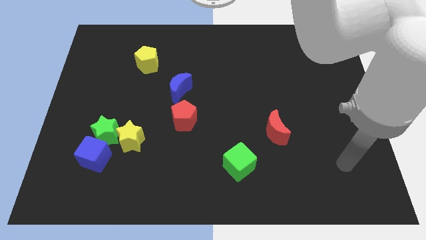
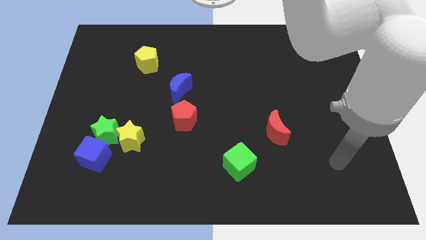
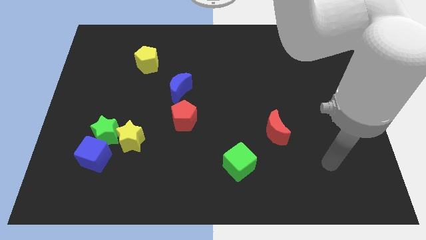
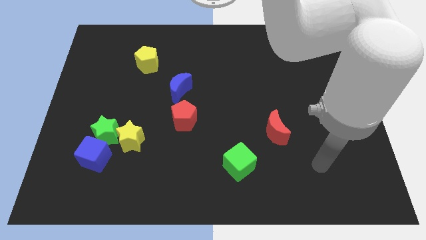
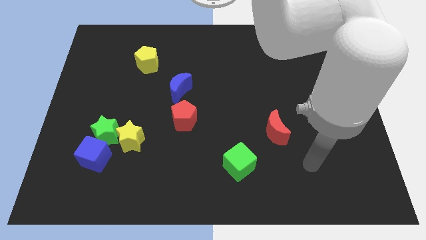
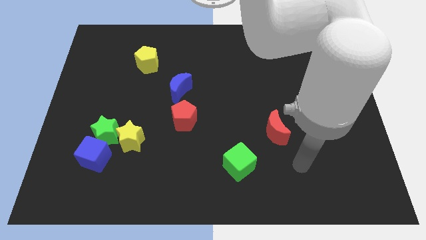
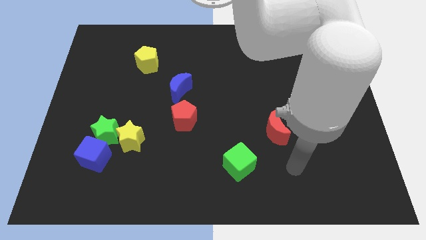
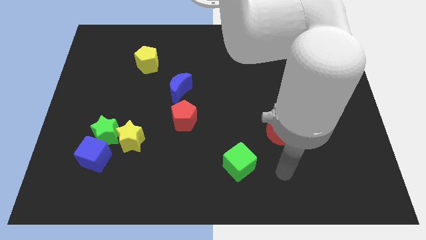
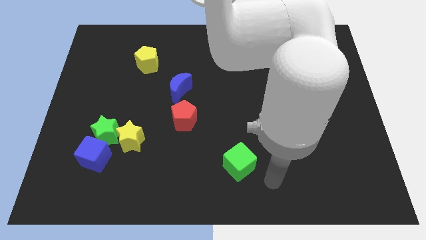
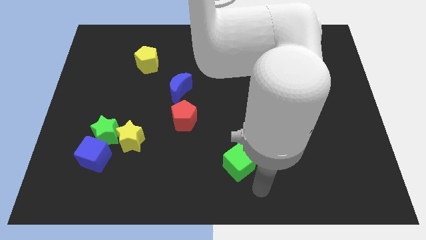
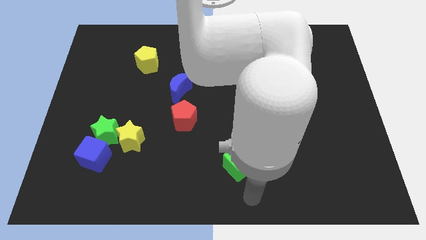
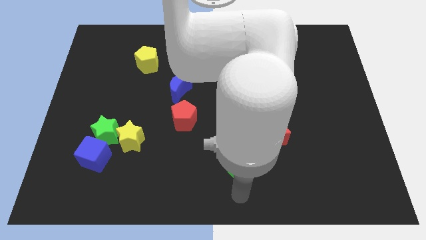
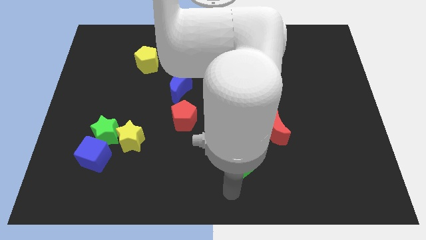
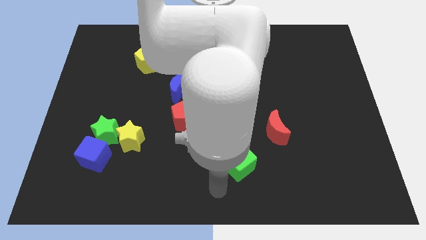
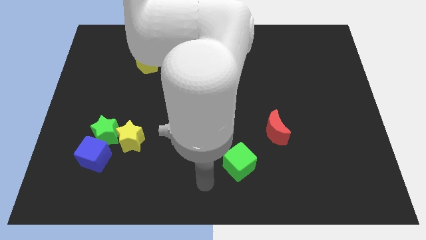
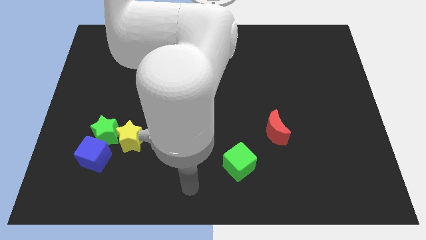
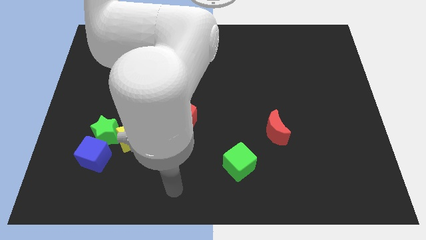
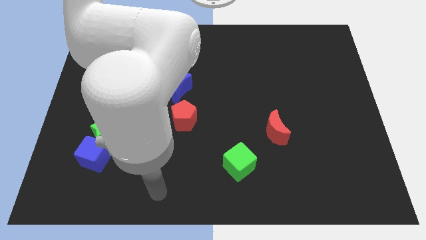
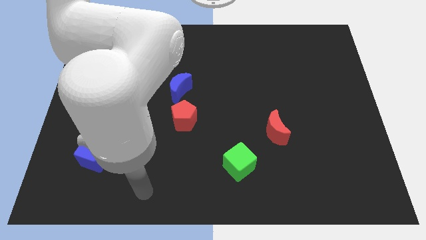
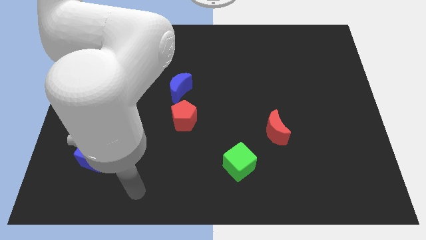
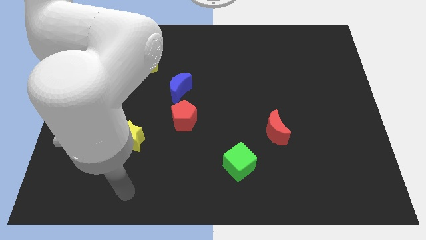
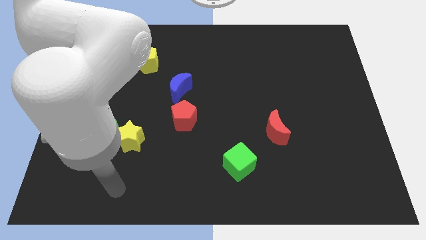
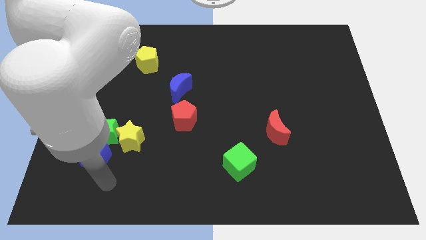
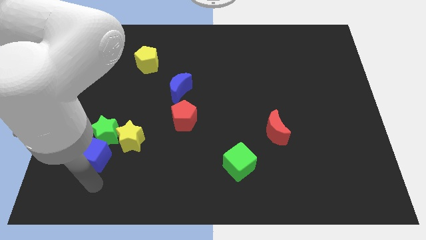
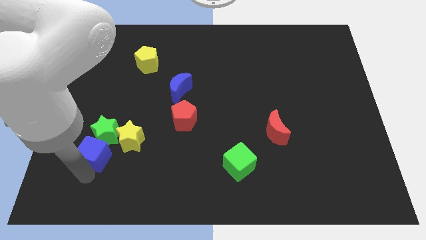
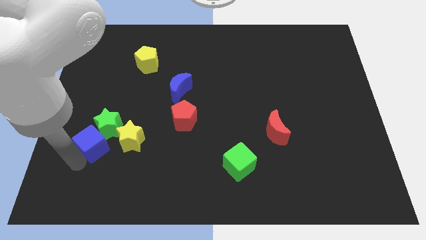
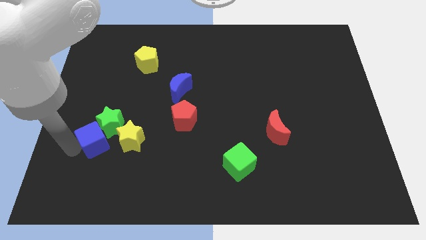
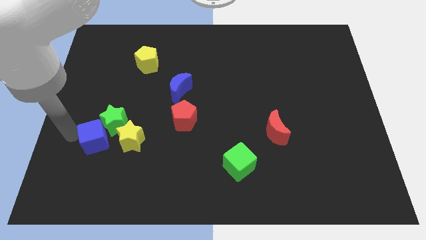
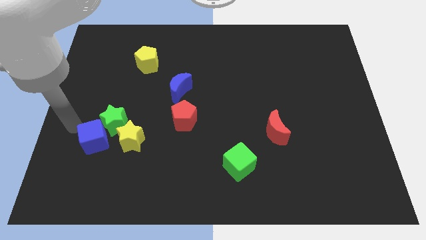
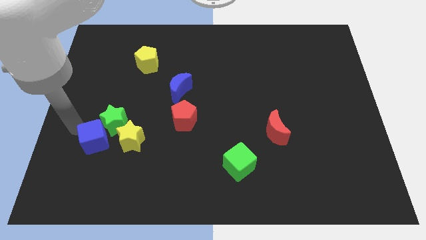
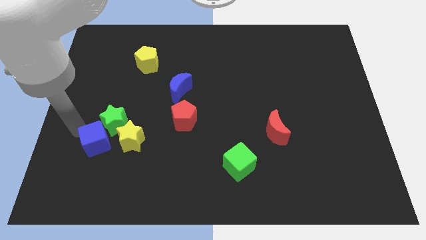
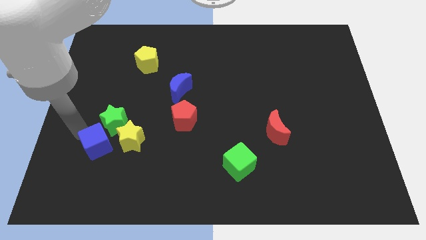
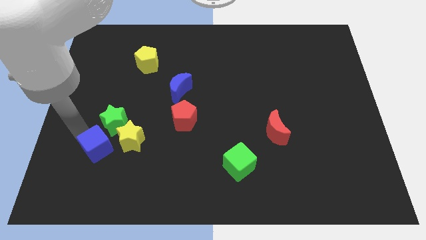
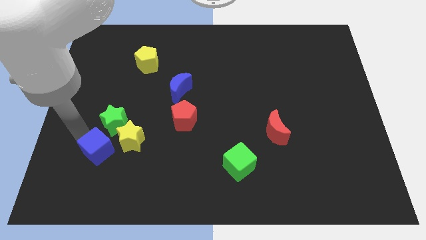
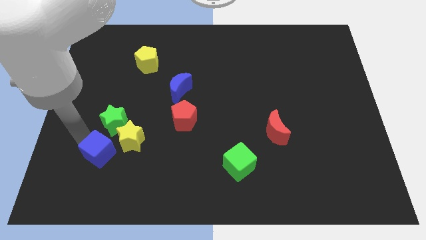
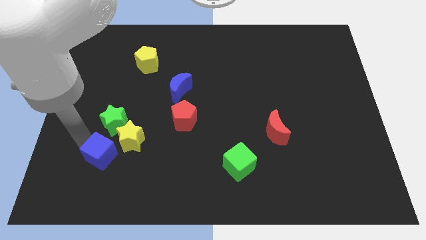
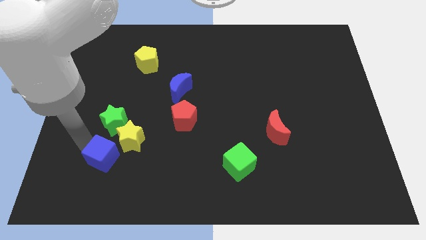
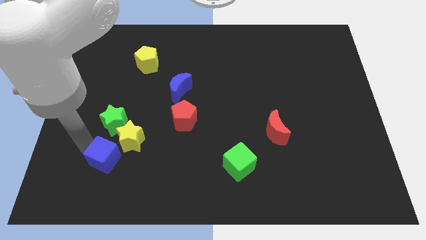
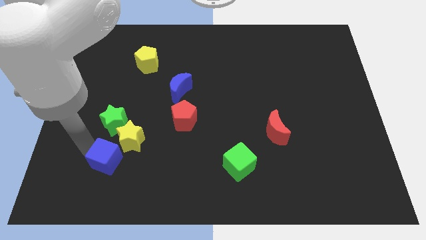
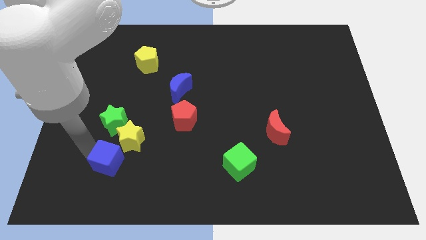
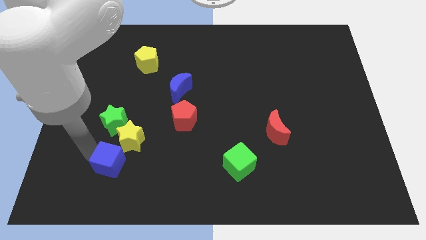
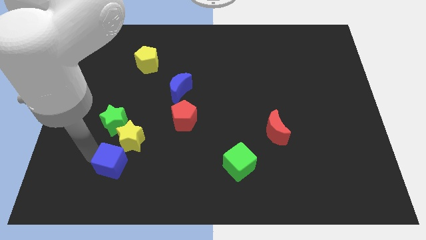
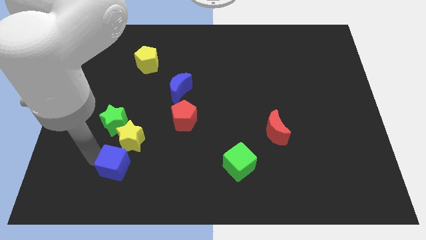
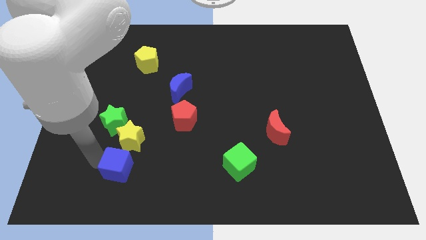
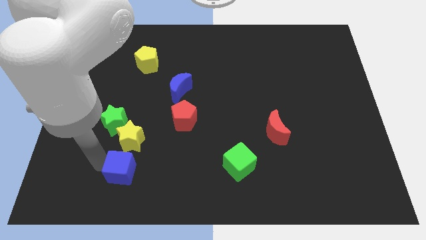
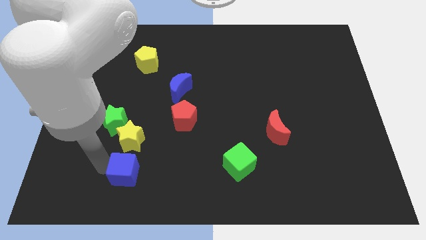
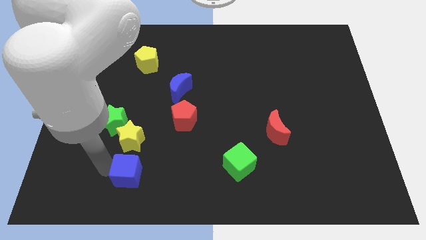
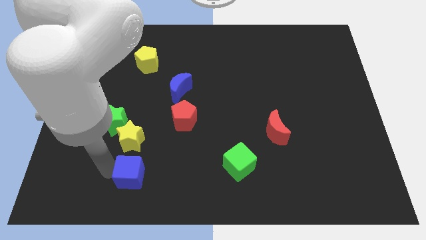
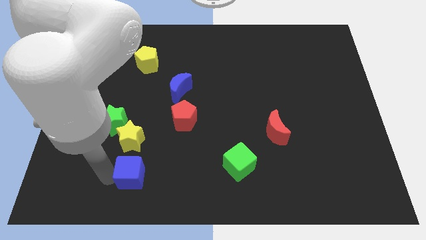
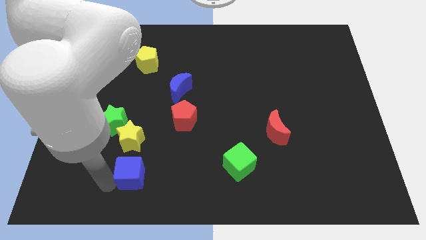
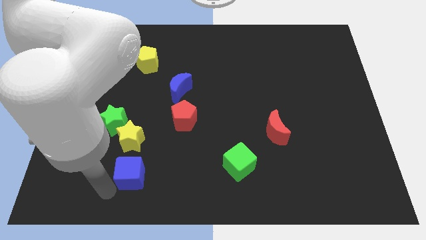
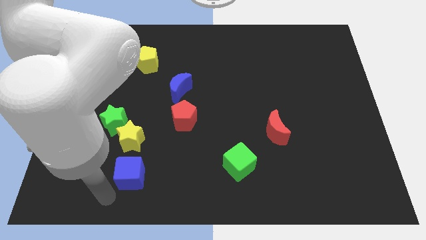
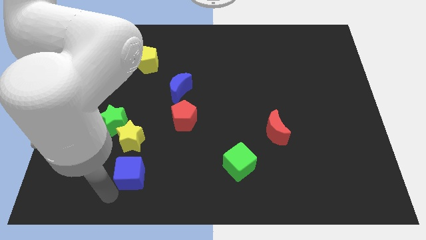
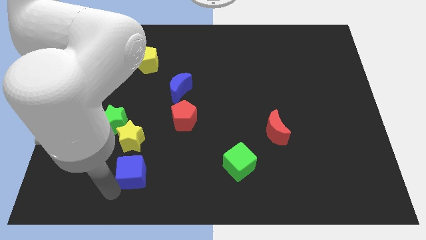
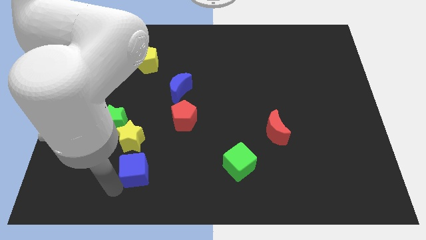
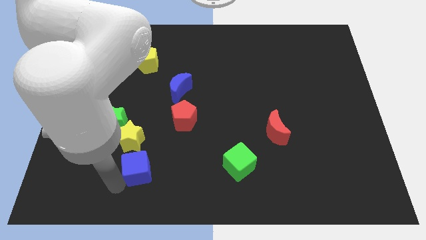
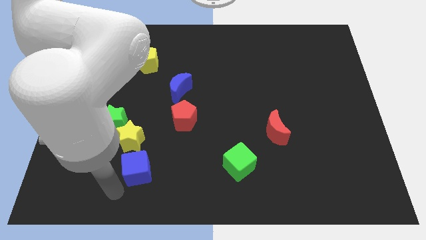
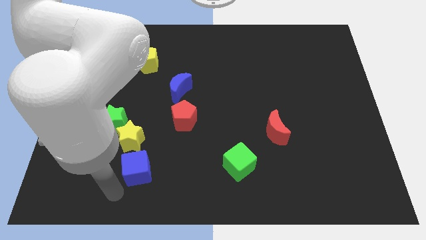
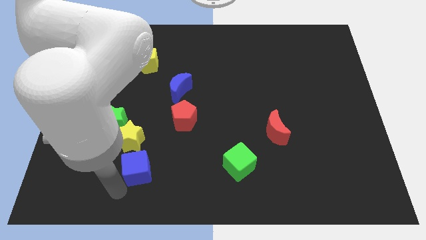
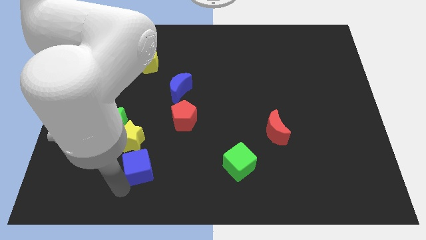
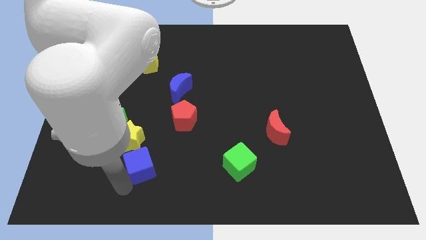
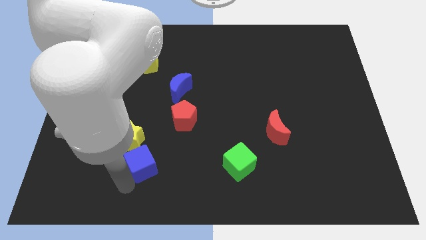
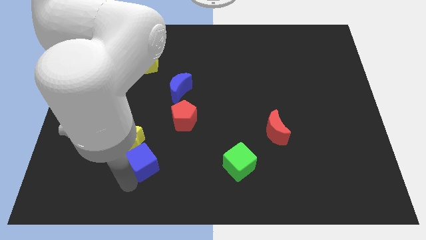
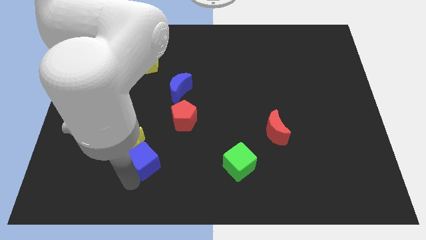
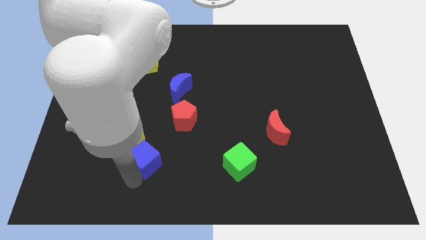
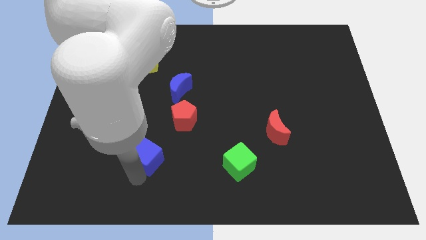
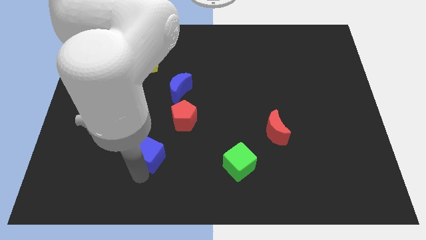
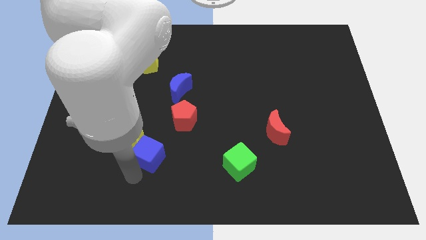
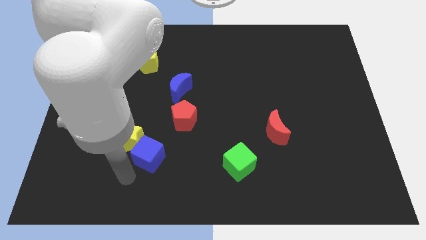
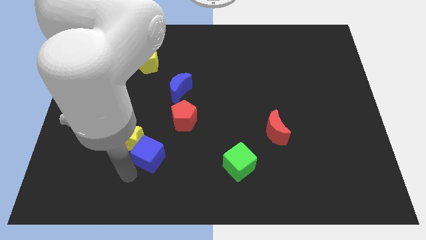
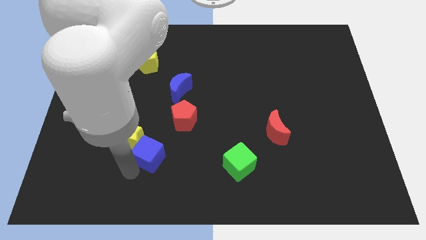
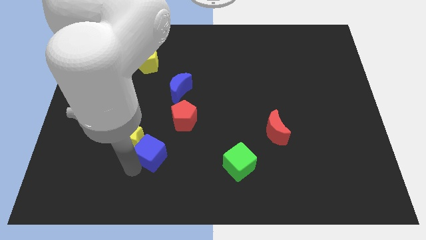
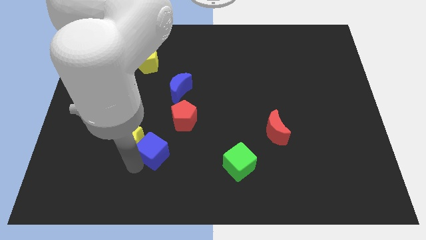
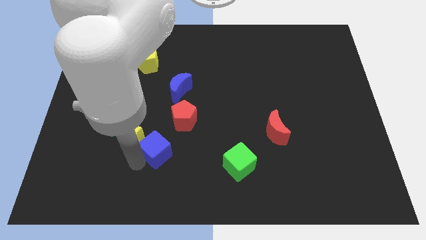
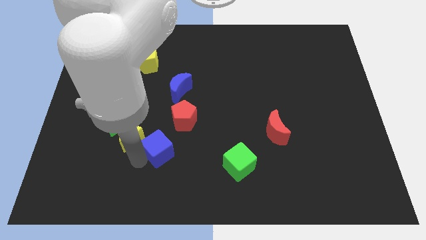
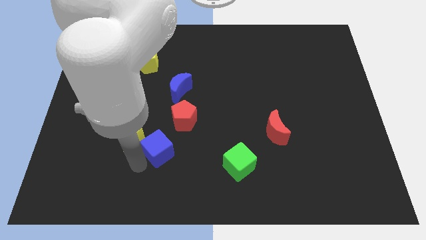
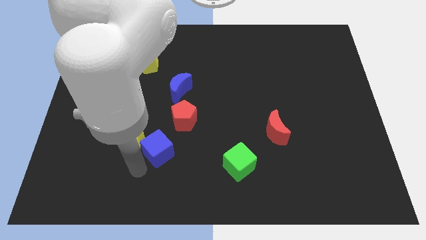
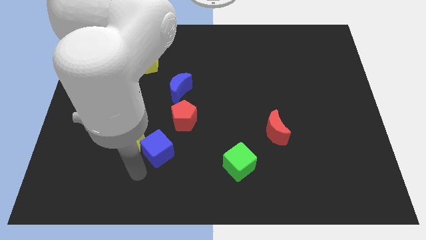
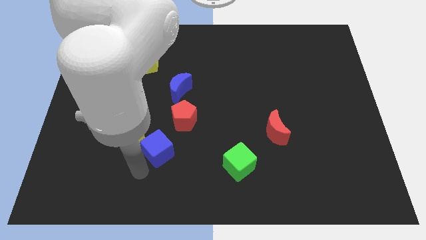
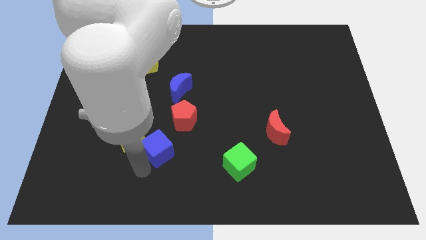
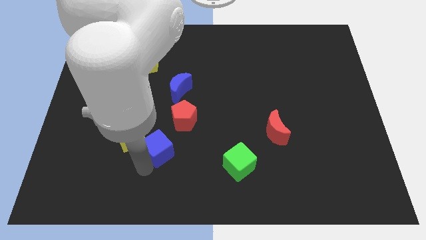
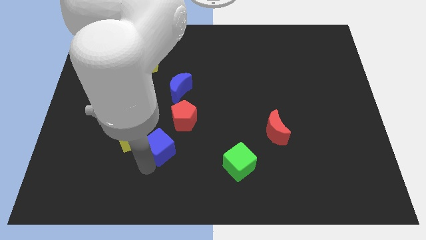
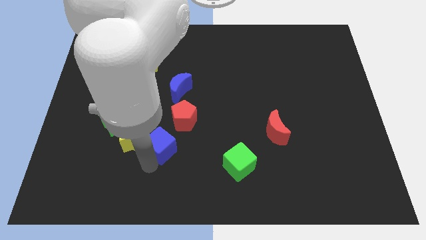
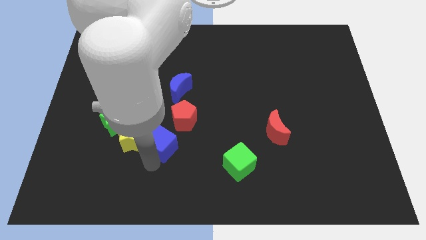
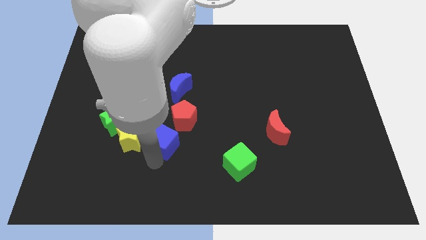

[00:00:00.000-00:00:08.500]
slide the blue cube to the bottom side of the blue moon
